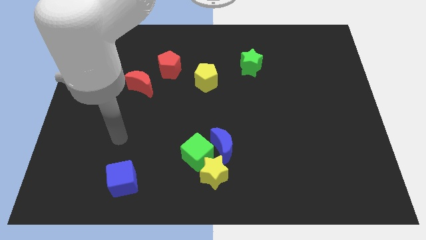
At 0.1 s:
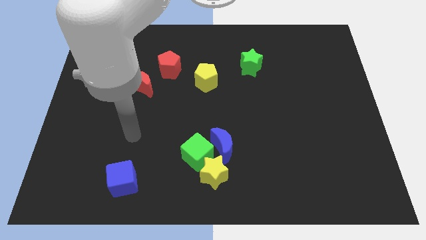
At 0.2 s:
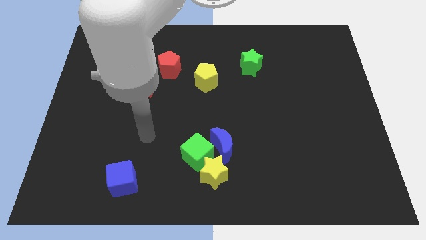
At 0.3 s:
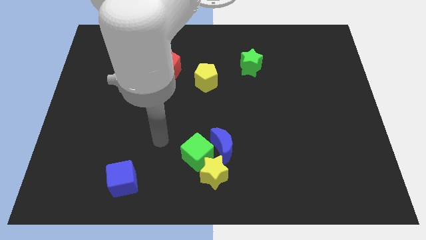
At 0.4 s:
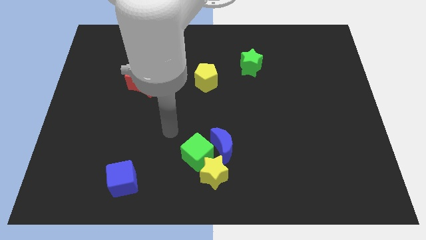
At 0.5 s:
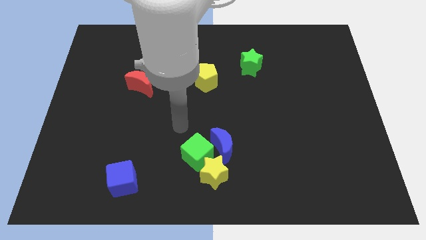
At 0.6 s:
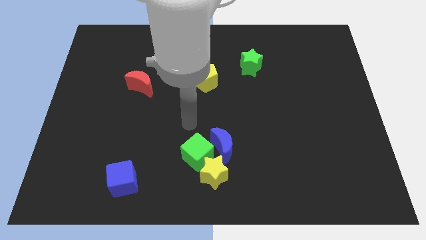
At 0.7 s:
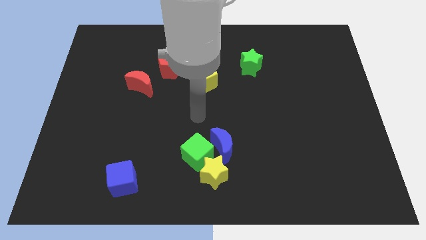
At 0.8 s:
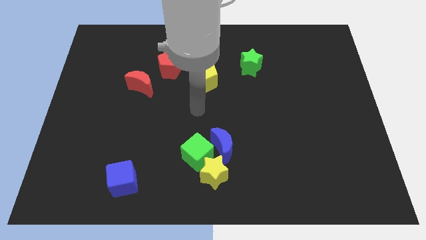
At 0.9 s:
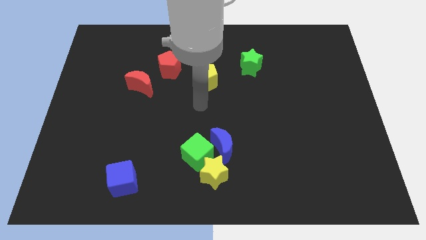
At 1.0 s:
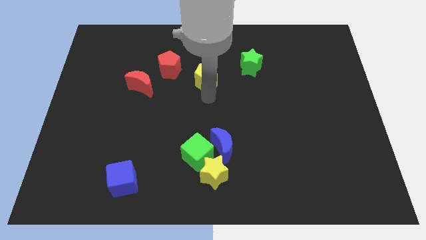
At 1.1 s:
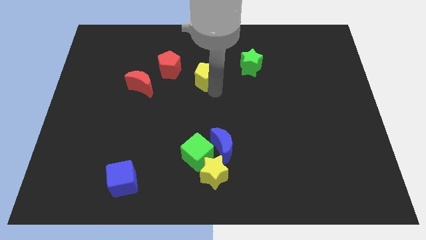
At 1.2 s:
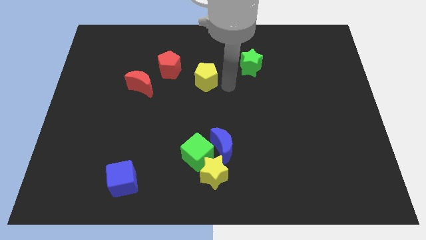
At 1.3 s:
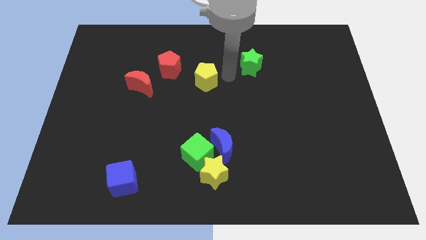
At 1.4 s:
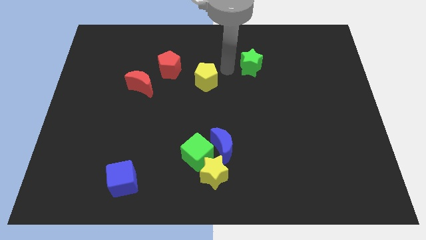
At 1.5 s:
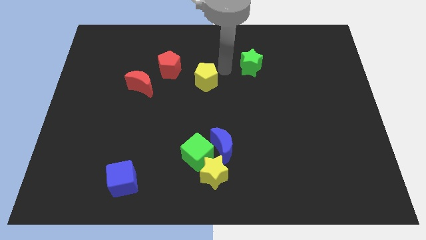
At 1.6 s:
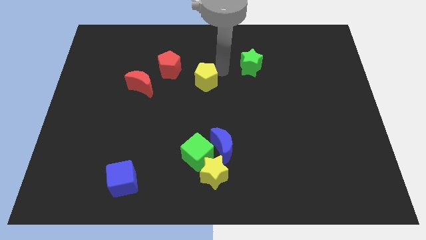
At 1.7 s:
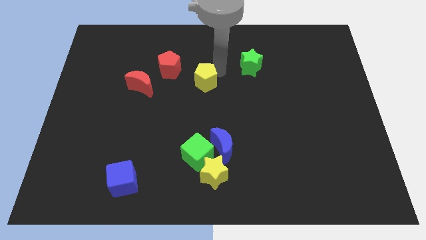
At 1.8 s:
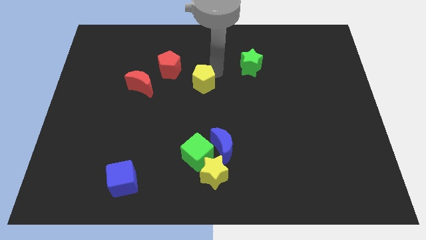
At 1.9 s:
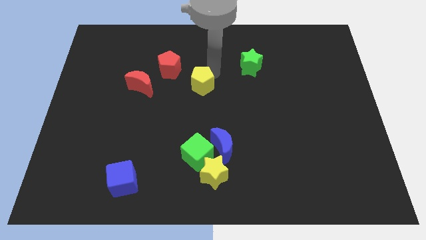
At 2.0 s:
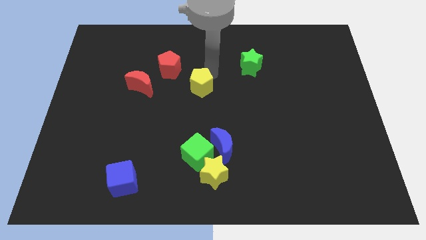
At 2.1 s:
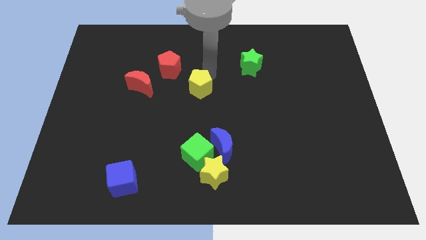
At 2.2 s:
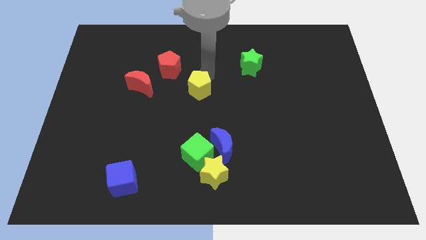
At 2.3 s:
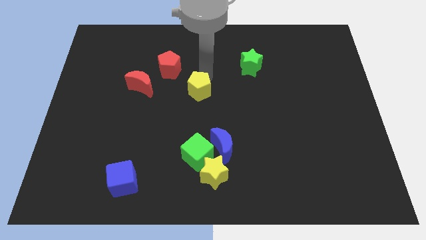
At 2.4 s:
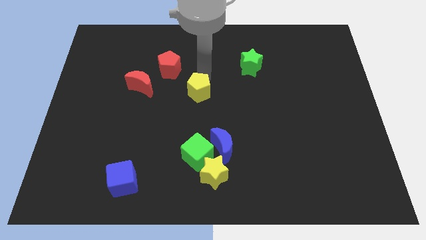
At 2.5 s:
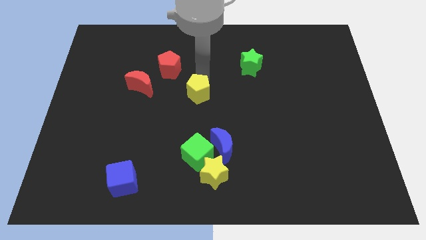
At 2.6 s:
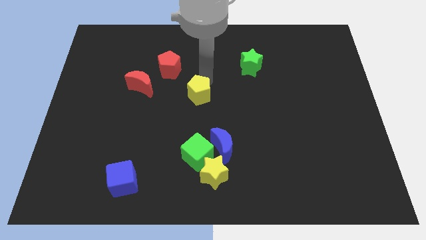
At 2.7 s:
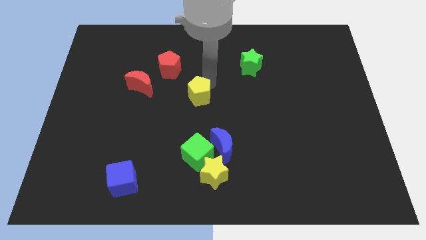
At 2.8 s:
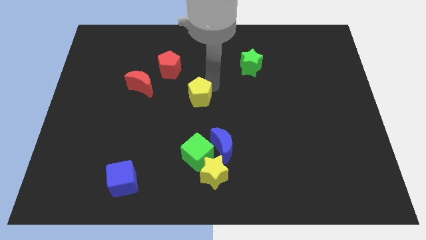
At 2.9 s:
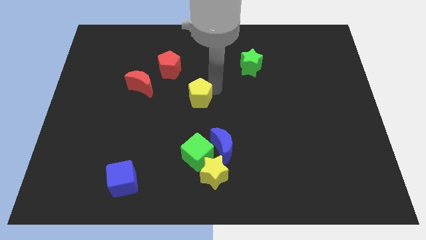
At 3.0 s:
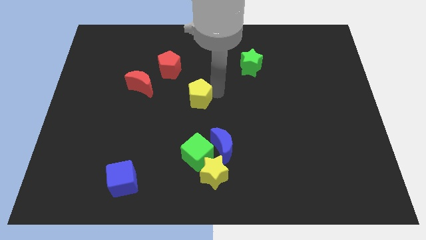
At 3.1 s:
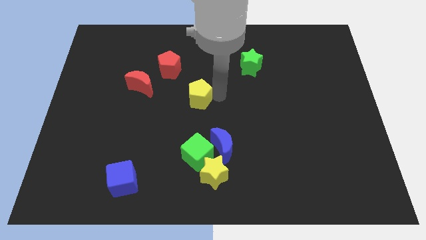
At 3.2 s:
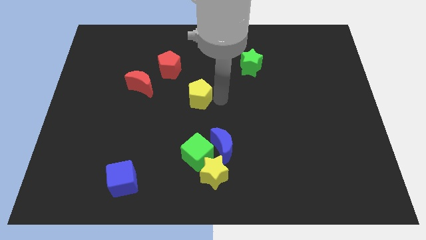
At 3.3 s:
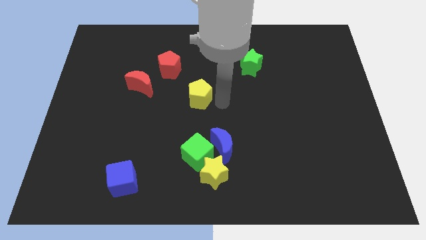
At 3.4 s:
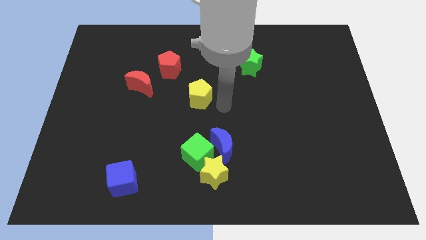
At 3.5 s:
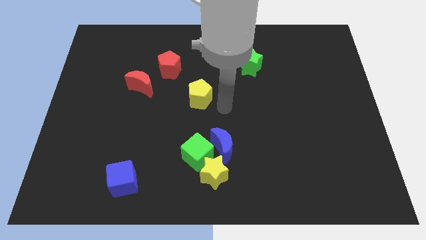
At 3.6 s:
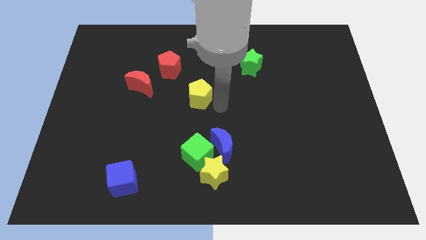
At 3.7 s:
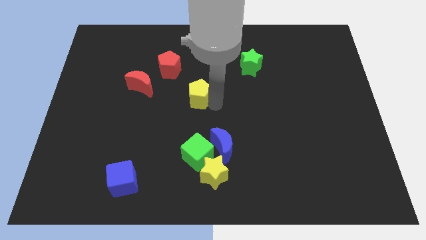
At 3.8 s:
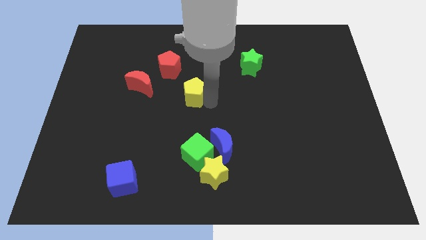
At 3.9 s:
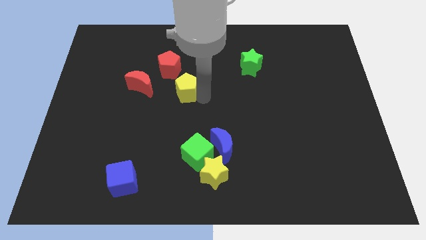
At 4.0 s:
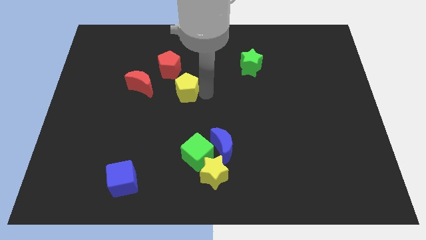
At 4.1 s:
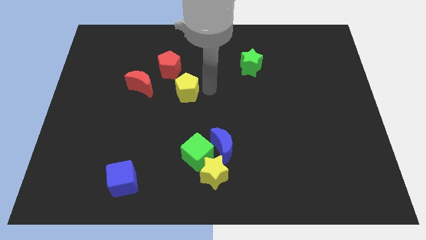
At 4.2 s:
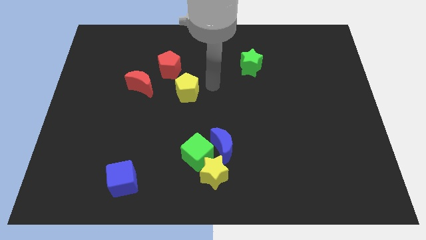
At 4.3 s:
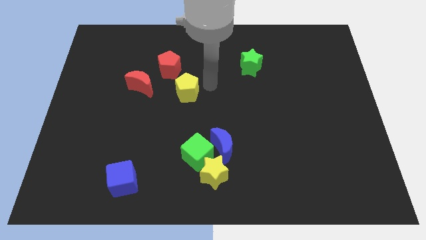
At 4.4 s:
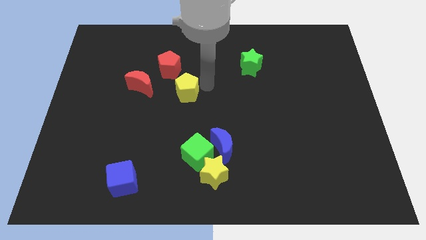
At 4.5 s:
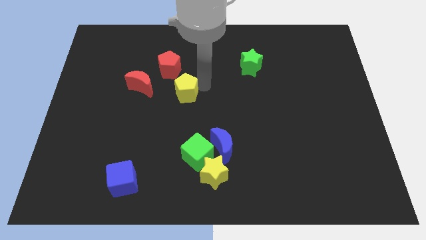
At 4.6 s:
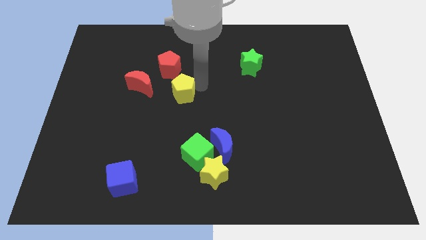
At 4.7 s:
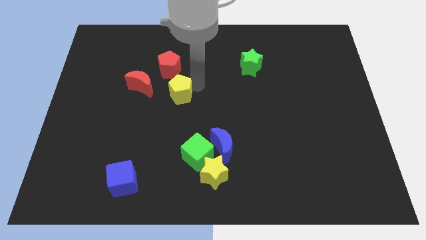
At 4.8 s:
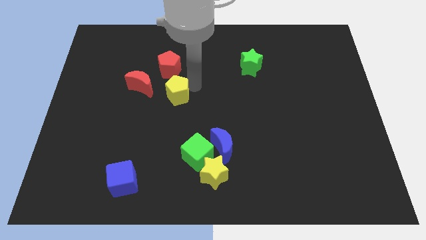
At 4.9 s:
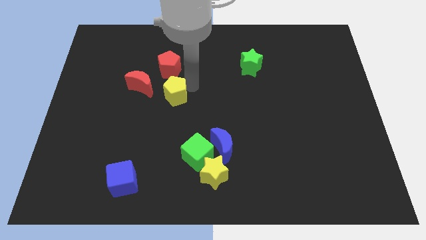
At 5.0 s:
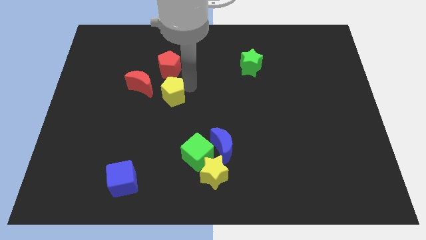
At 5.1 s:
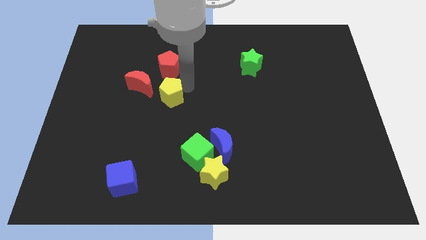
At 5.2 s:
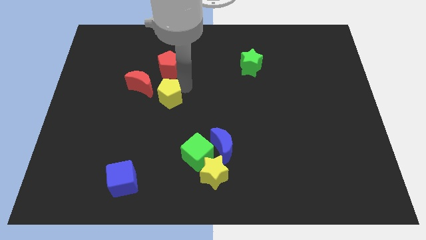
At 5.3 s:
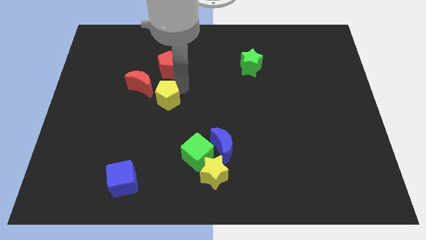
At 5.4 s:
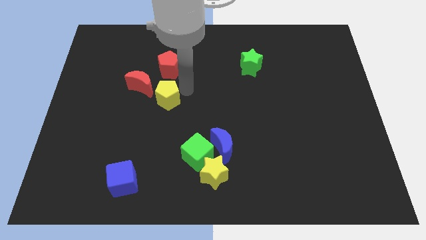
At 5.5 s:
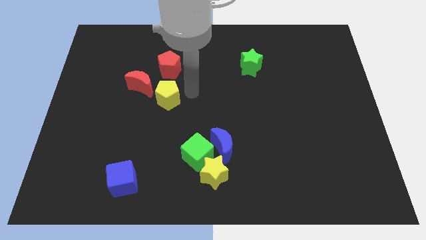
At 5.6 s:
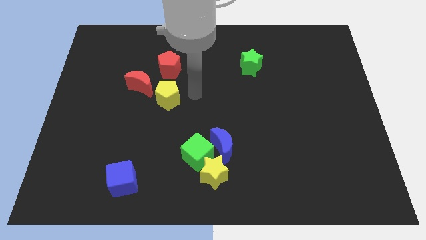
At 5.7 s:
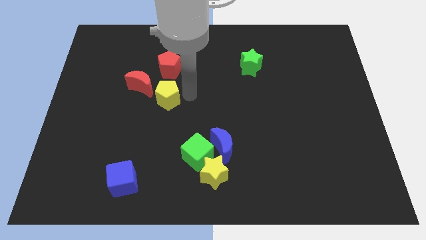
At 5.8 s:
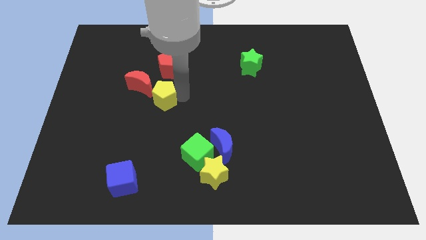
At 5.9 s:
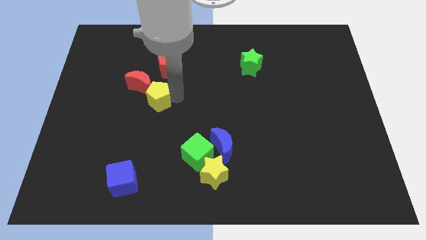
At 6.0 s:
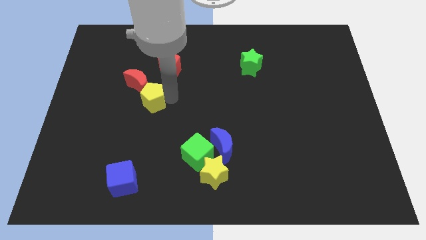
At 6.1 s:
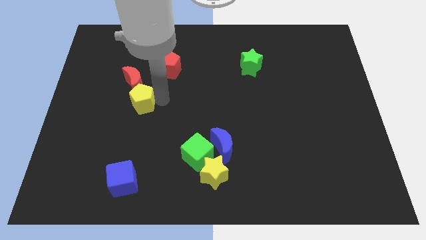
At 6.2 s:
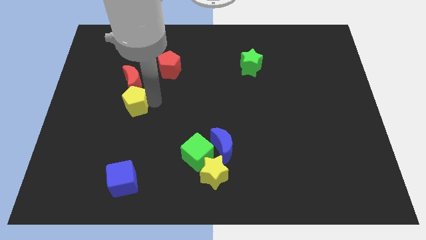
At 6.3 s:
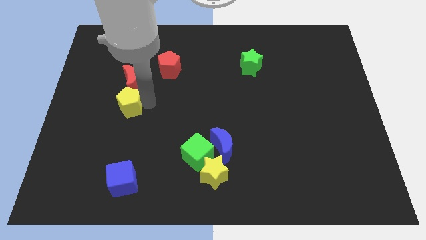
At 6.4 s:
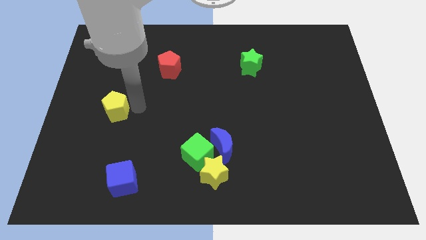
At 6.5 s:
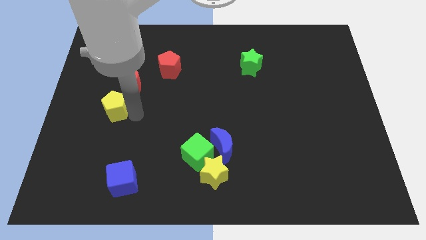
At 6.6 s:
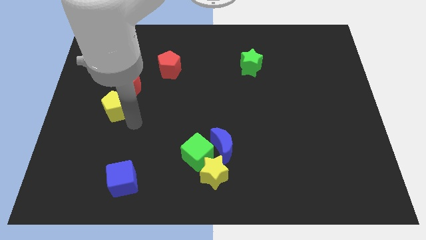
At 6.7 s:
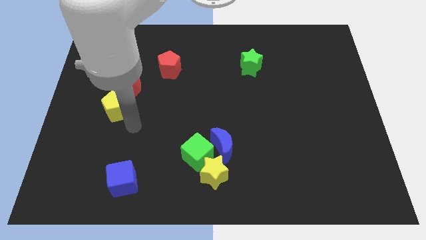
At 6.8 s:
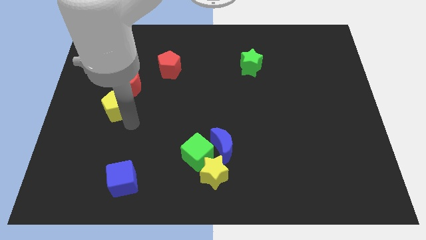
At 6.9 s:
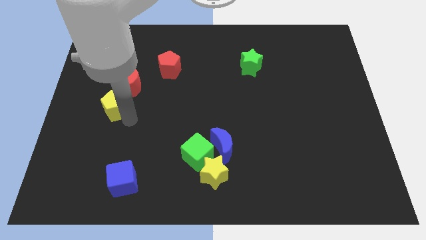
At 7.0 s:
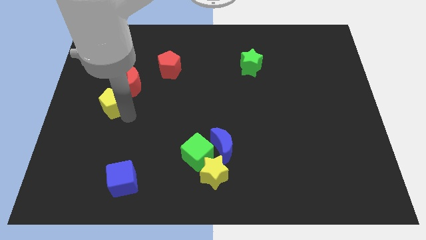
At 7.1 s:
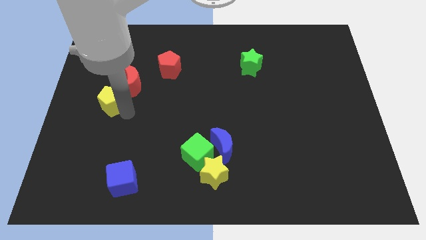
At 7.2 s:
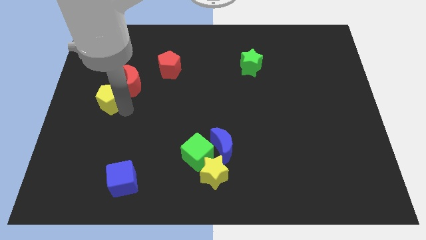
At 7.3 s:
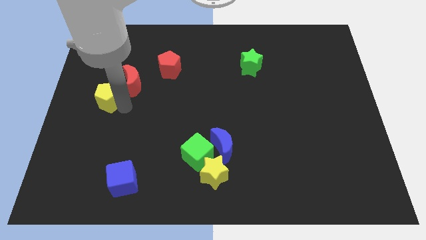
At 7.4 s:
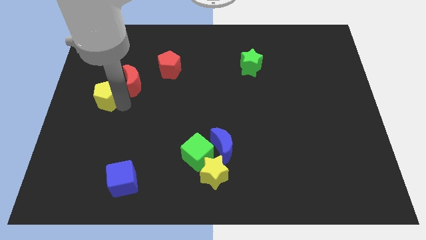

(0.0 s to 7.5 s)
move the yellow pentagon left of the red moon
